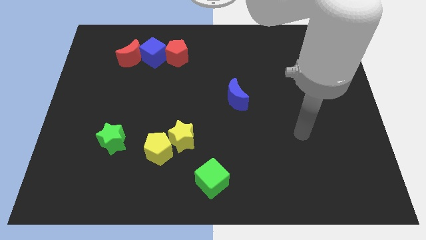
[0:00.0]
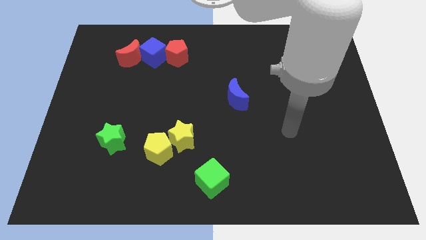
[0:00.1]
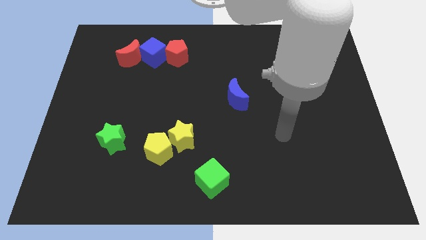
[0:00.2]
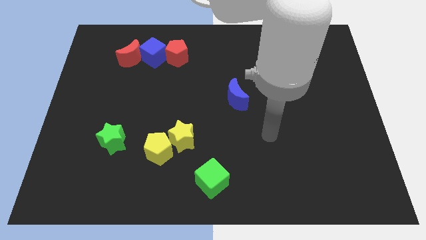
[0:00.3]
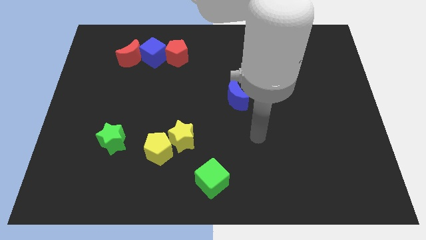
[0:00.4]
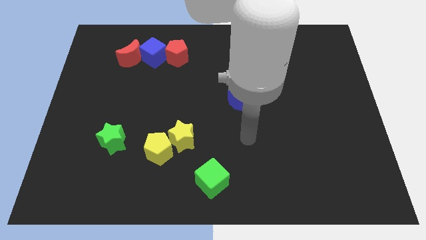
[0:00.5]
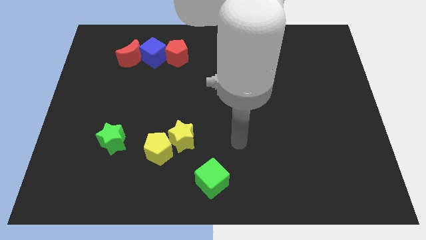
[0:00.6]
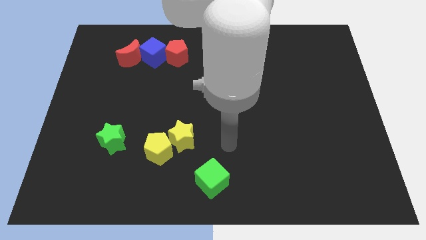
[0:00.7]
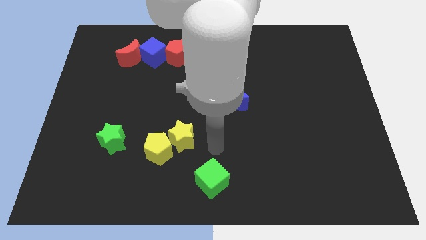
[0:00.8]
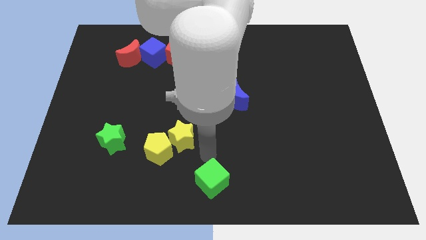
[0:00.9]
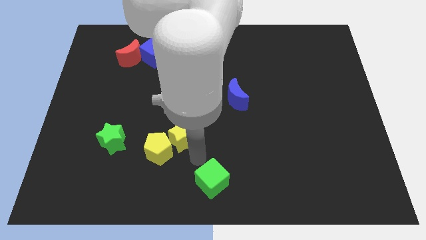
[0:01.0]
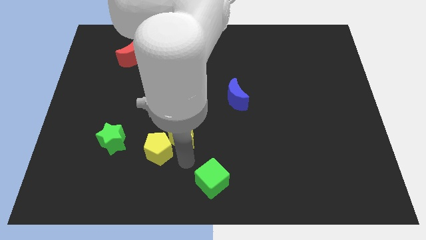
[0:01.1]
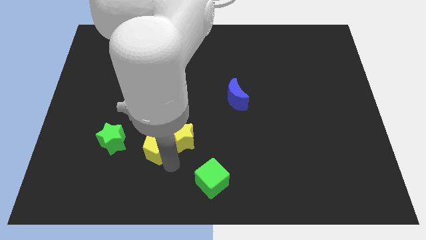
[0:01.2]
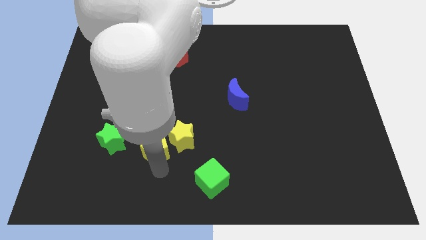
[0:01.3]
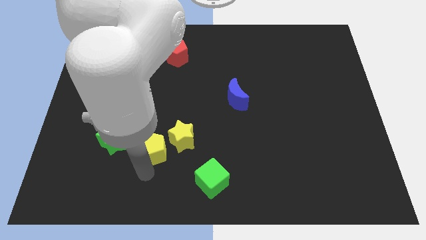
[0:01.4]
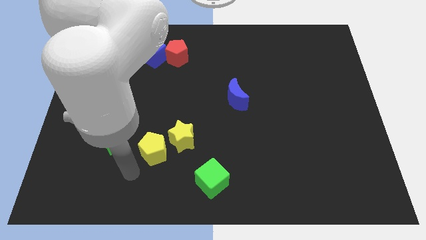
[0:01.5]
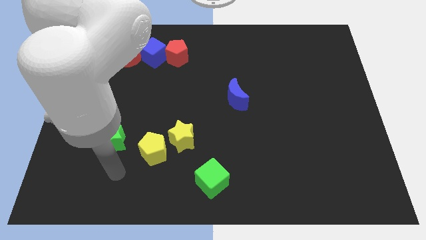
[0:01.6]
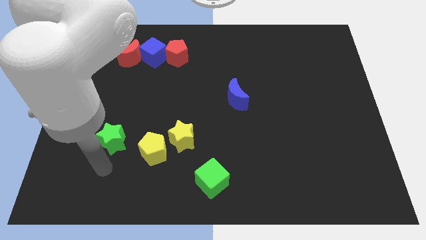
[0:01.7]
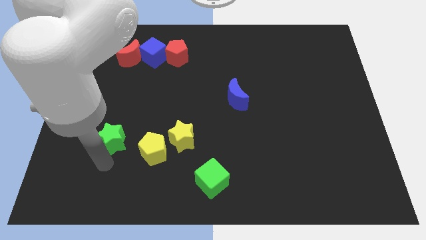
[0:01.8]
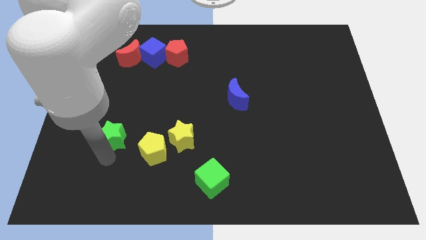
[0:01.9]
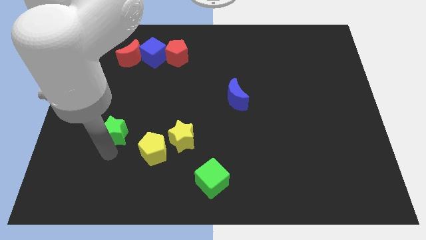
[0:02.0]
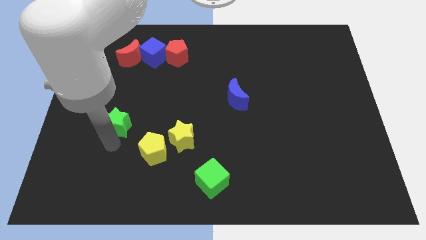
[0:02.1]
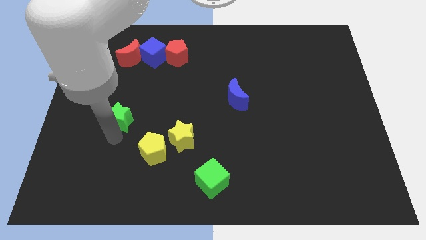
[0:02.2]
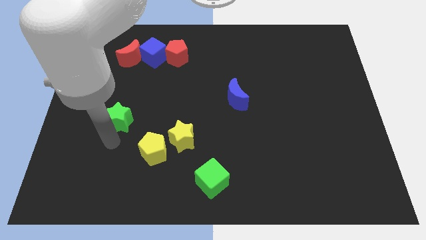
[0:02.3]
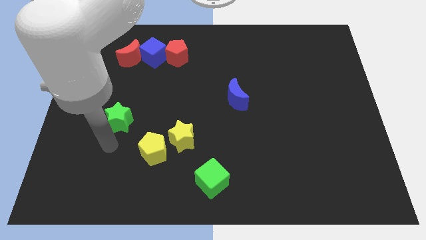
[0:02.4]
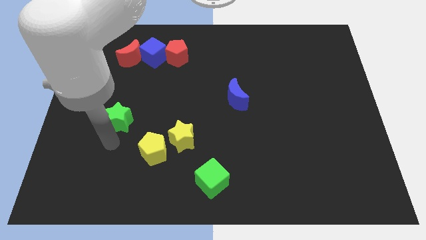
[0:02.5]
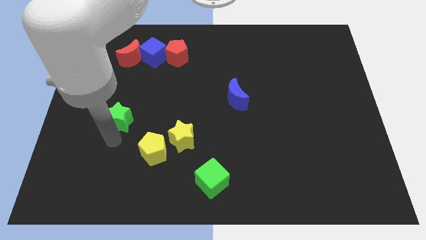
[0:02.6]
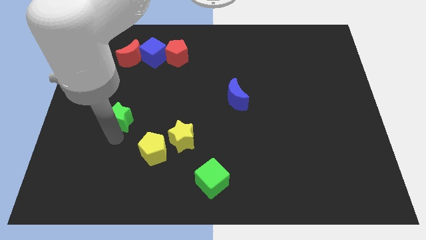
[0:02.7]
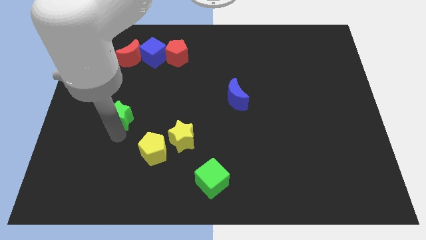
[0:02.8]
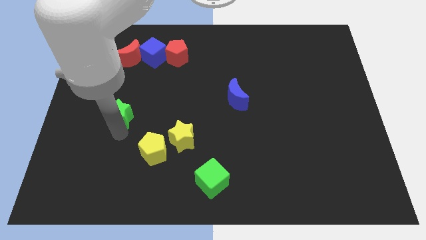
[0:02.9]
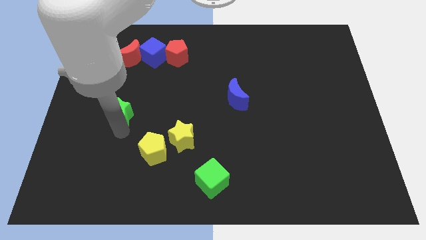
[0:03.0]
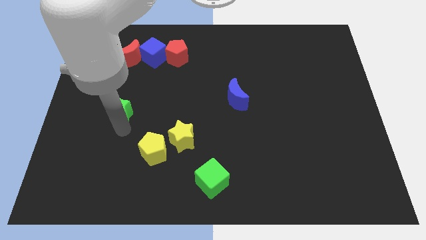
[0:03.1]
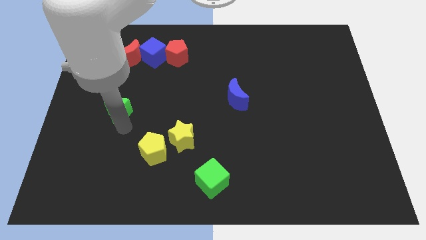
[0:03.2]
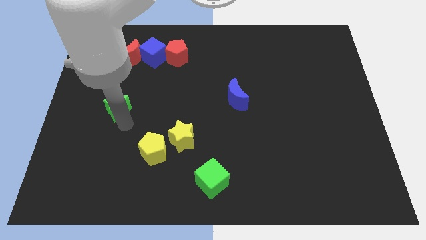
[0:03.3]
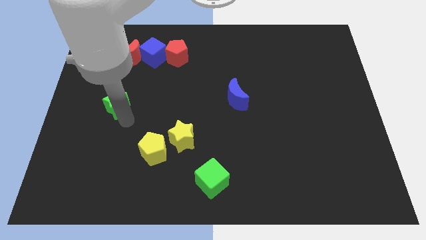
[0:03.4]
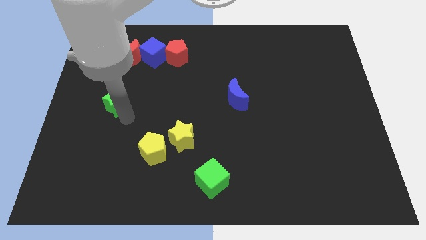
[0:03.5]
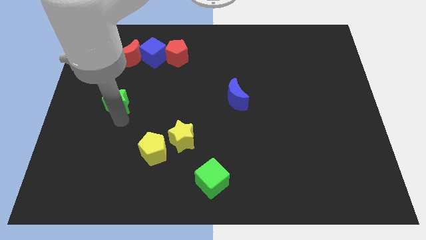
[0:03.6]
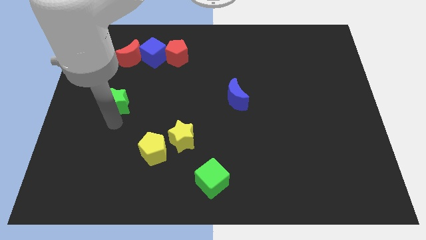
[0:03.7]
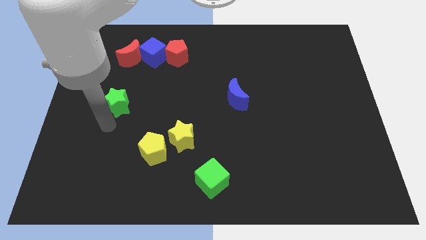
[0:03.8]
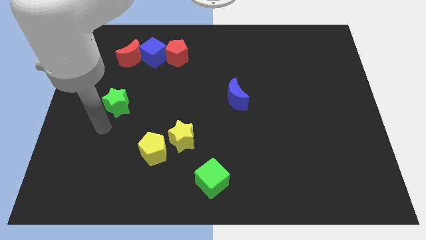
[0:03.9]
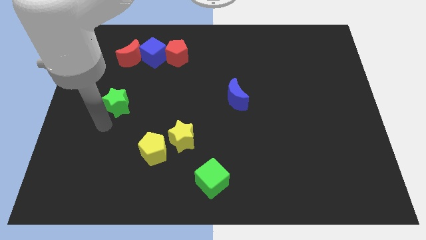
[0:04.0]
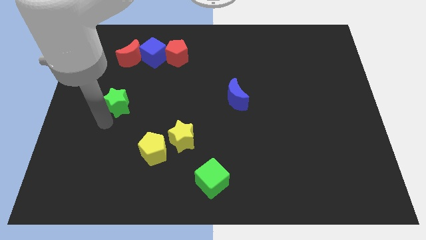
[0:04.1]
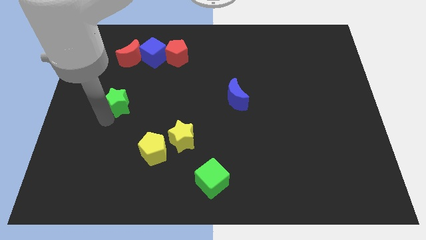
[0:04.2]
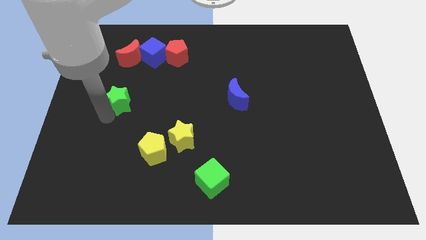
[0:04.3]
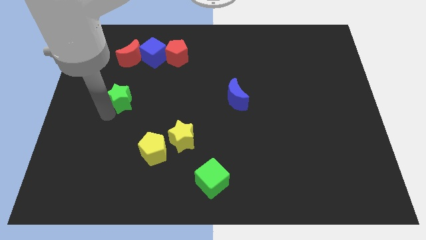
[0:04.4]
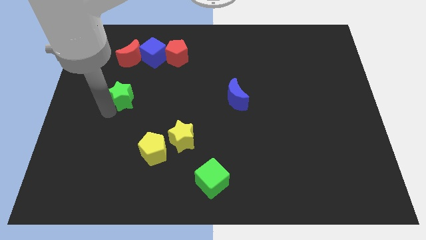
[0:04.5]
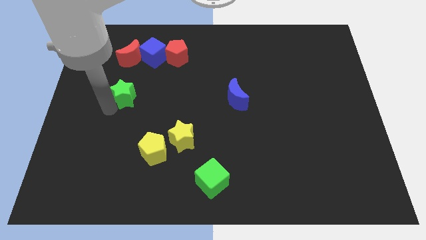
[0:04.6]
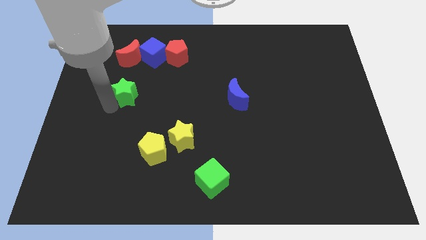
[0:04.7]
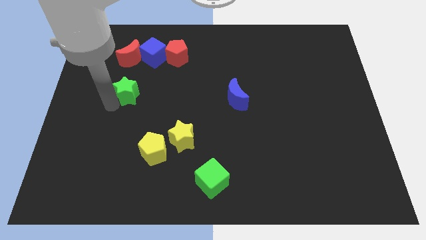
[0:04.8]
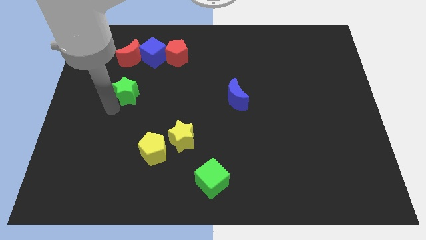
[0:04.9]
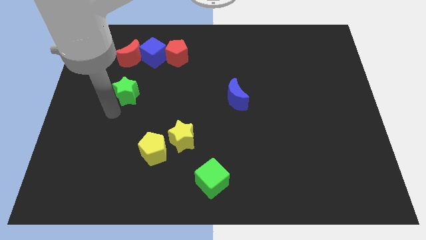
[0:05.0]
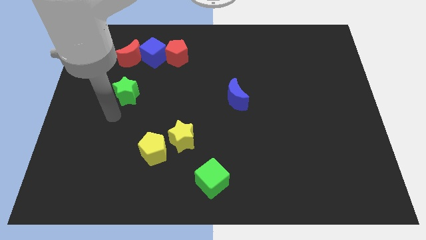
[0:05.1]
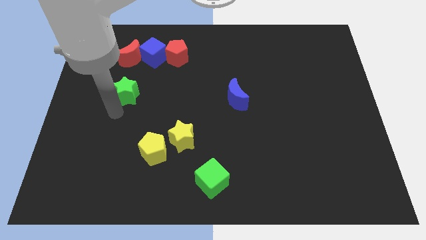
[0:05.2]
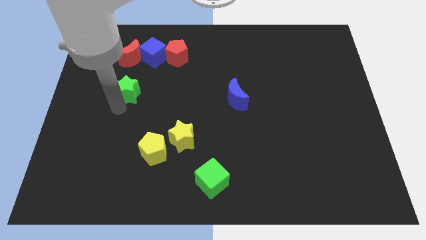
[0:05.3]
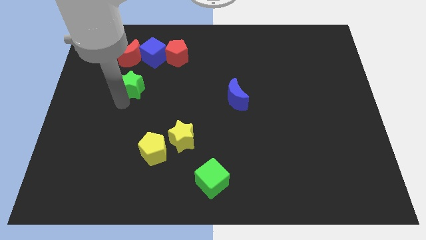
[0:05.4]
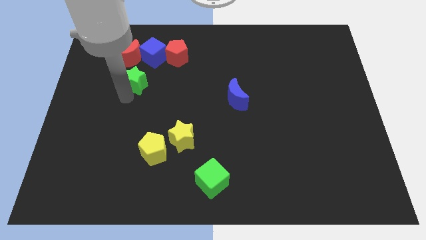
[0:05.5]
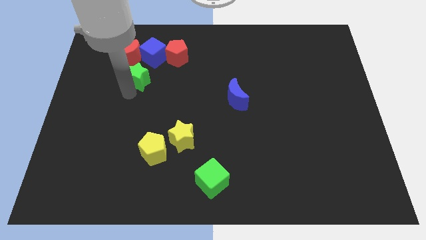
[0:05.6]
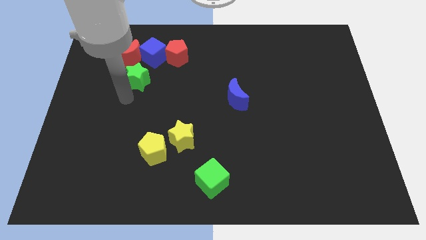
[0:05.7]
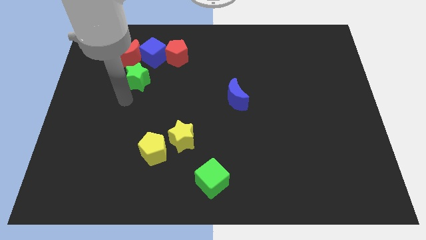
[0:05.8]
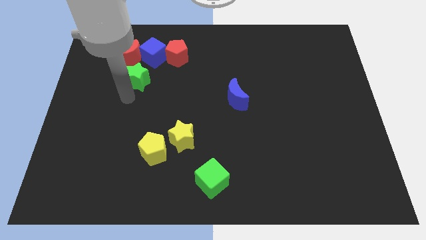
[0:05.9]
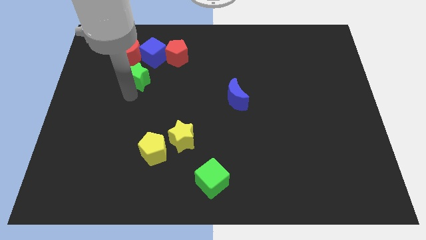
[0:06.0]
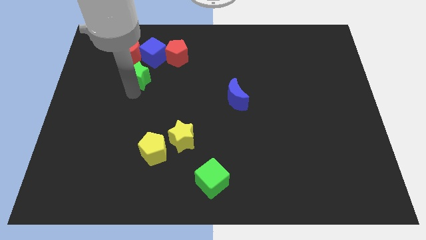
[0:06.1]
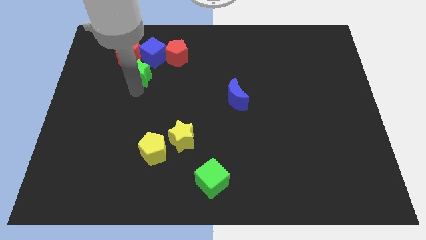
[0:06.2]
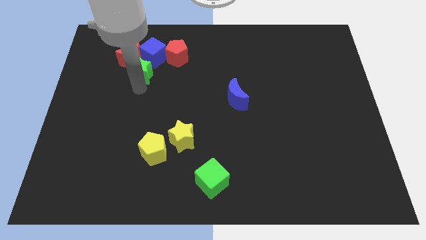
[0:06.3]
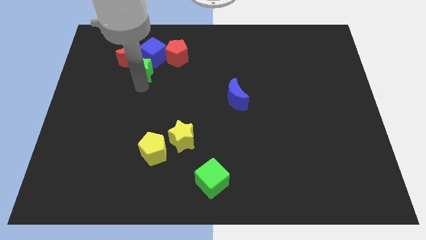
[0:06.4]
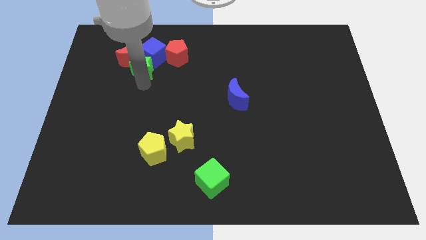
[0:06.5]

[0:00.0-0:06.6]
push the green star towards the blue cube

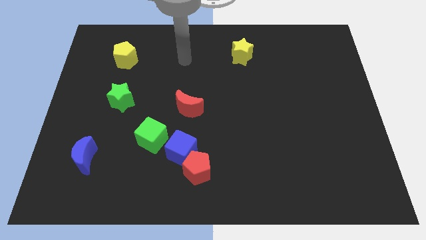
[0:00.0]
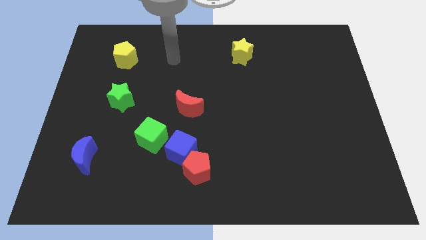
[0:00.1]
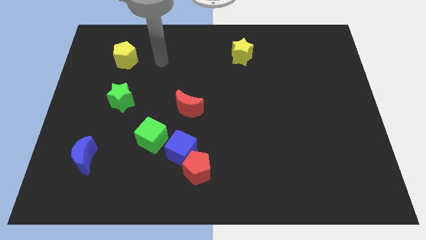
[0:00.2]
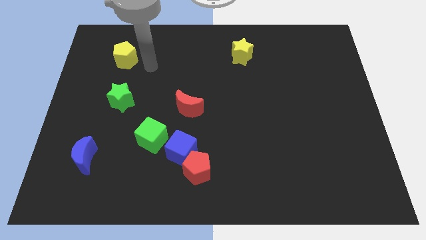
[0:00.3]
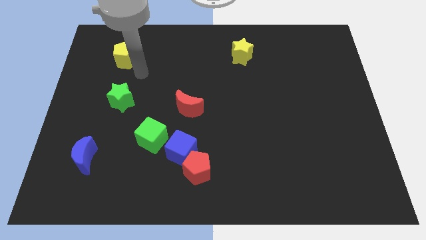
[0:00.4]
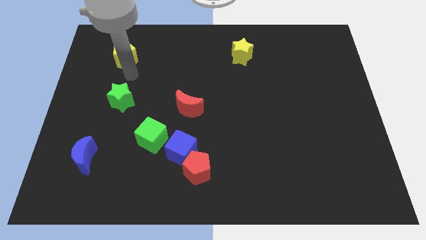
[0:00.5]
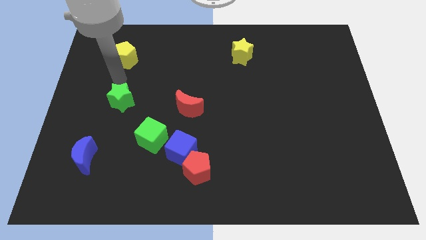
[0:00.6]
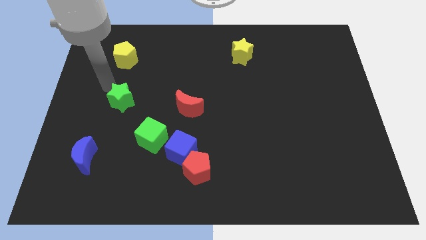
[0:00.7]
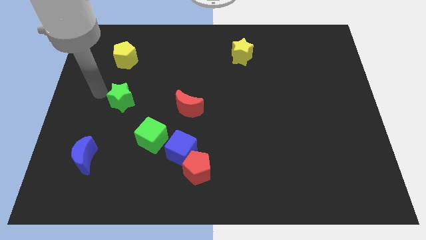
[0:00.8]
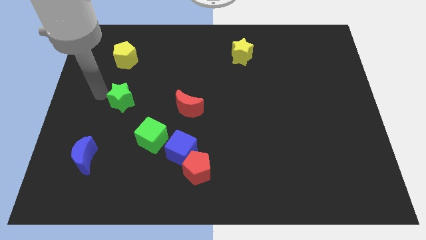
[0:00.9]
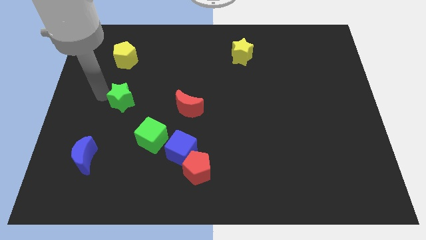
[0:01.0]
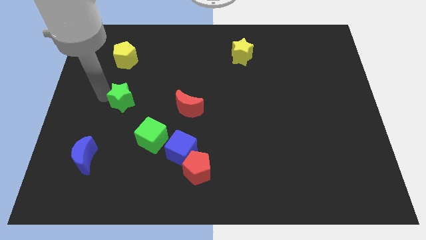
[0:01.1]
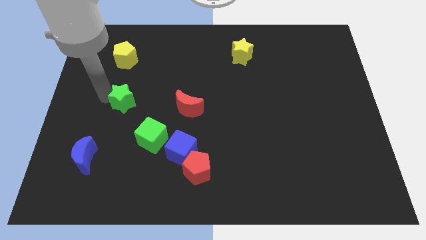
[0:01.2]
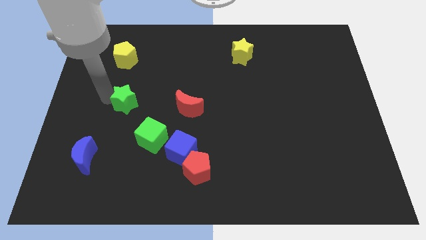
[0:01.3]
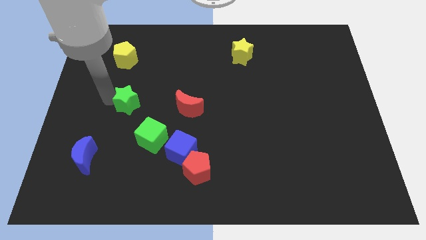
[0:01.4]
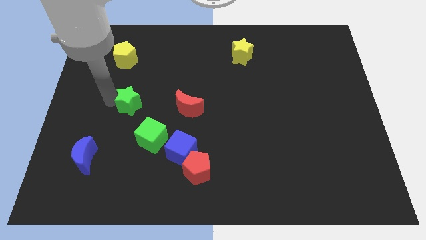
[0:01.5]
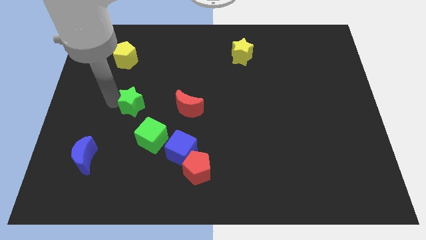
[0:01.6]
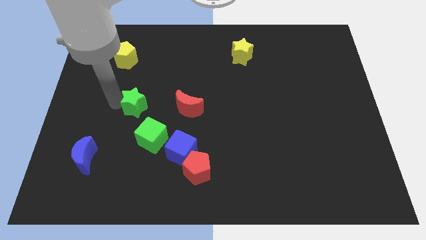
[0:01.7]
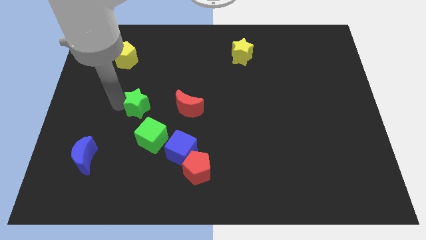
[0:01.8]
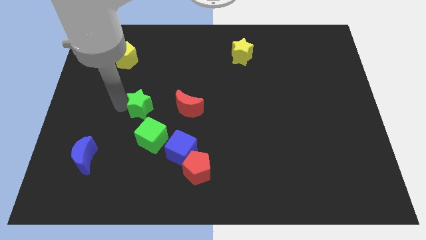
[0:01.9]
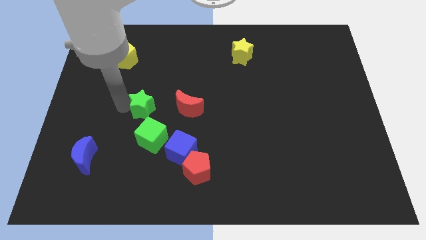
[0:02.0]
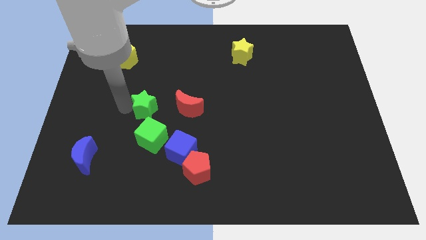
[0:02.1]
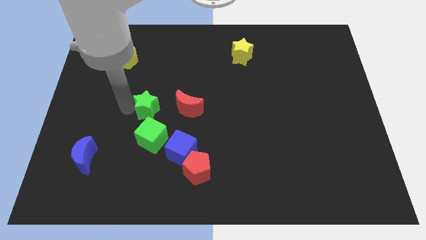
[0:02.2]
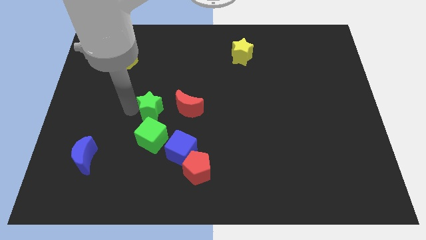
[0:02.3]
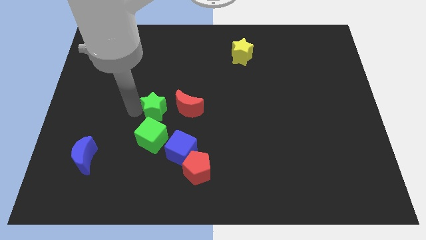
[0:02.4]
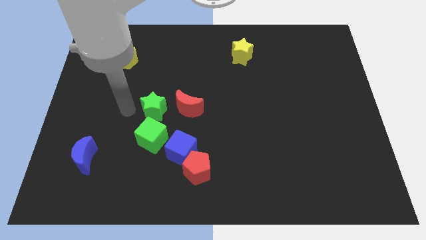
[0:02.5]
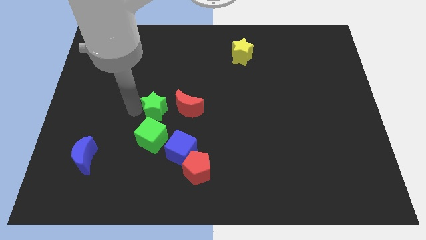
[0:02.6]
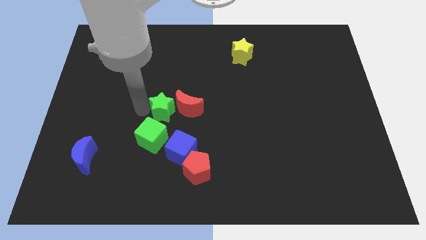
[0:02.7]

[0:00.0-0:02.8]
slide the green star towards the red moon
